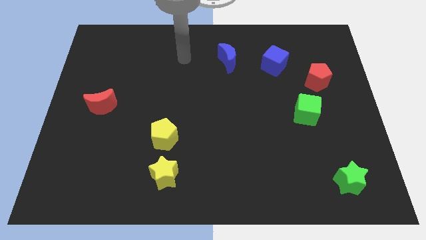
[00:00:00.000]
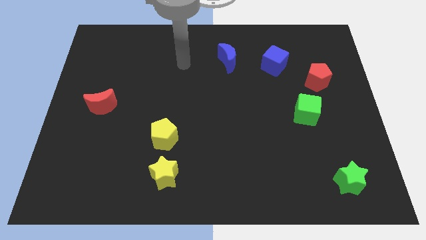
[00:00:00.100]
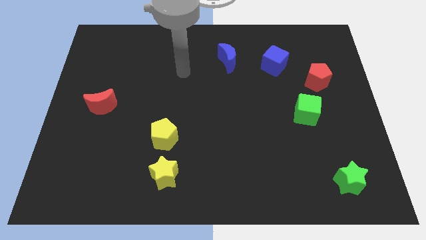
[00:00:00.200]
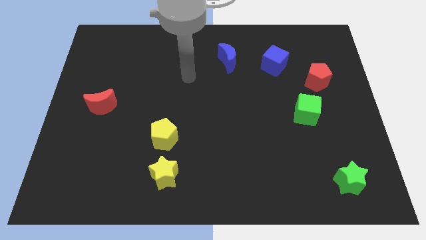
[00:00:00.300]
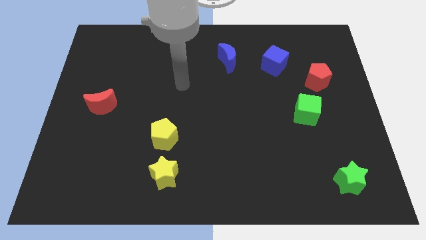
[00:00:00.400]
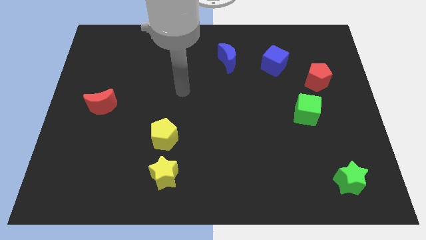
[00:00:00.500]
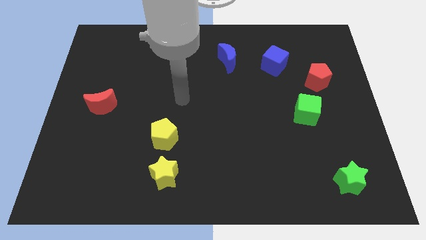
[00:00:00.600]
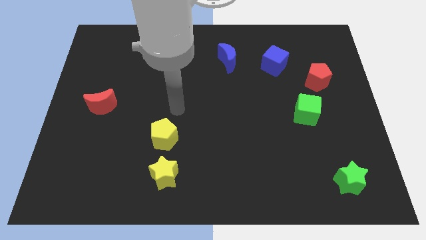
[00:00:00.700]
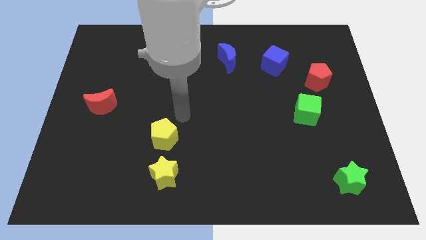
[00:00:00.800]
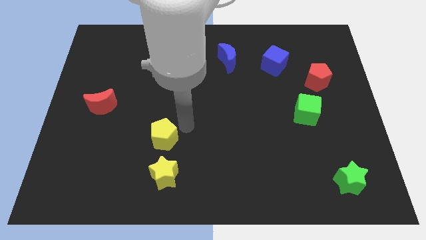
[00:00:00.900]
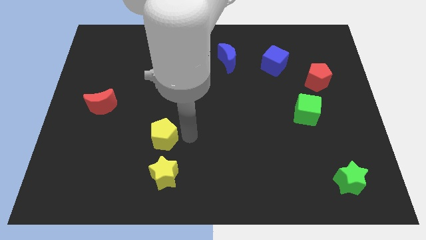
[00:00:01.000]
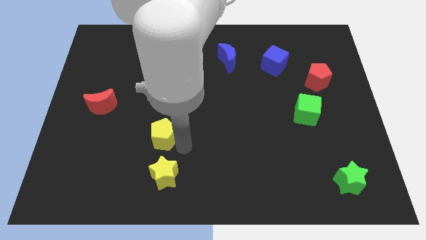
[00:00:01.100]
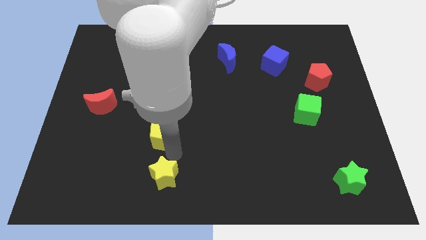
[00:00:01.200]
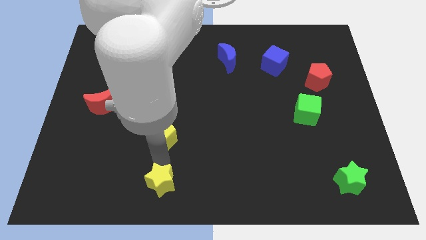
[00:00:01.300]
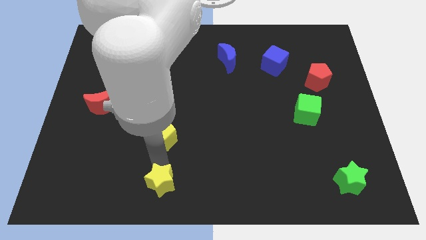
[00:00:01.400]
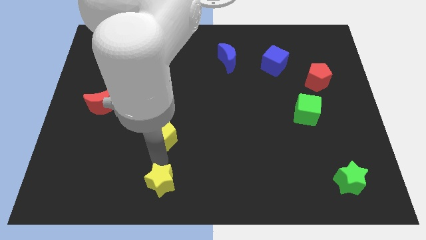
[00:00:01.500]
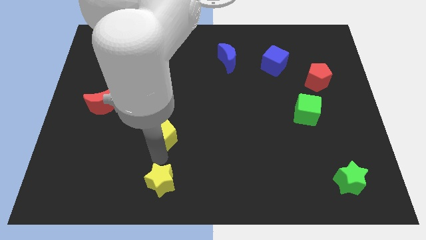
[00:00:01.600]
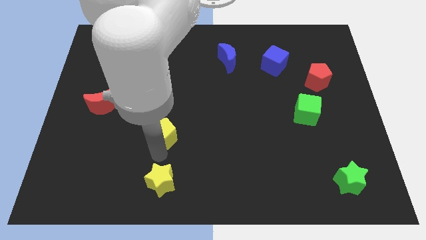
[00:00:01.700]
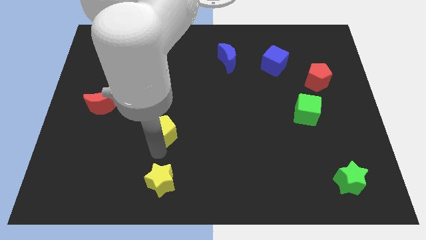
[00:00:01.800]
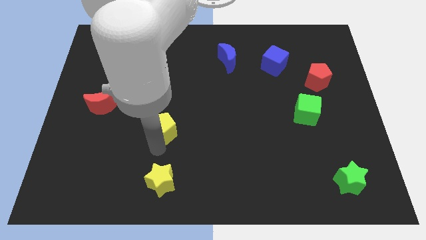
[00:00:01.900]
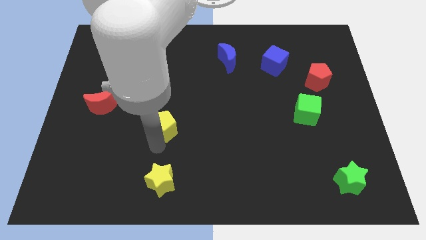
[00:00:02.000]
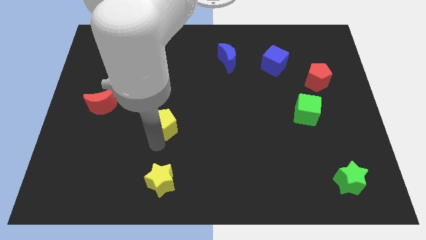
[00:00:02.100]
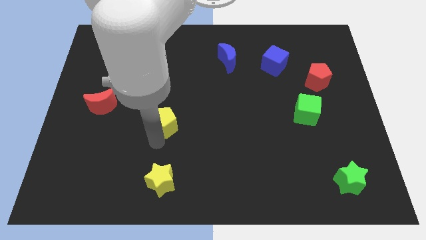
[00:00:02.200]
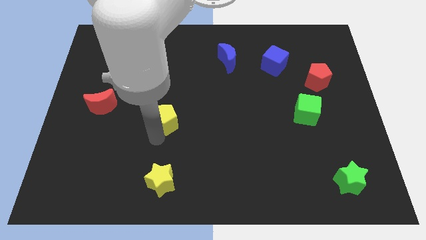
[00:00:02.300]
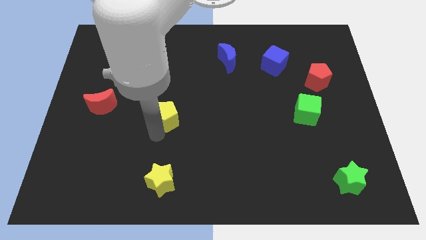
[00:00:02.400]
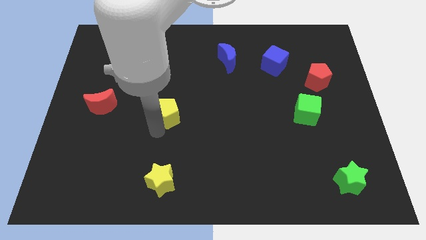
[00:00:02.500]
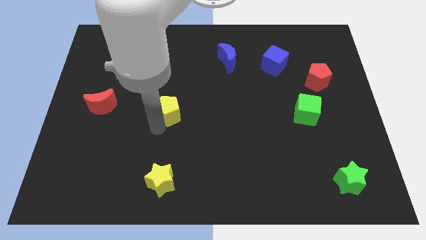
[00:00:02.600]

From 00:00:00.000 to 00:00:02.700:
slide the yellow pentagon a little bit up

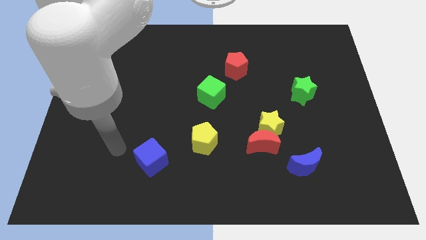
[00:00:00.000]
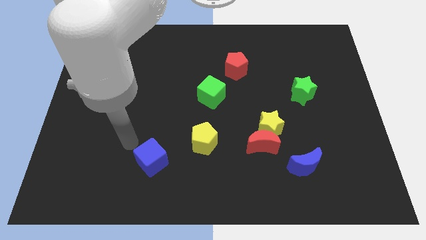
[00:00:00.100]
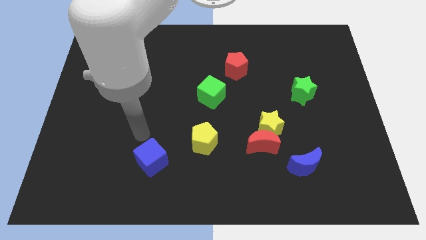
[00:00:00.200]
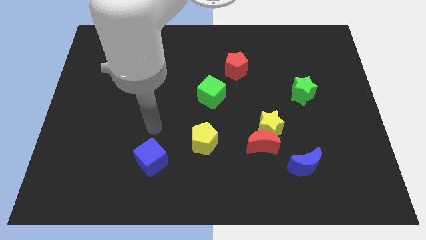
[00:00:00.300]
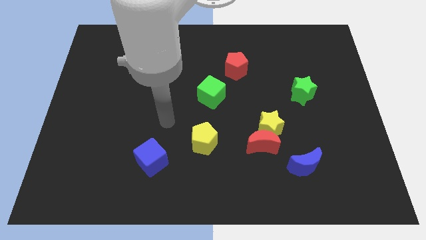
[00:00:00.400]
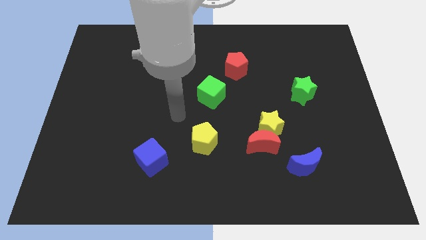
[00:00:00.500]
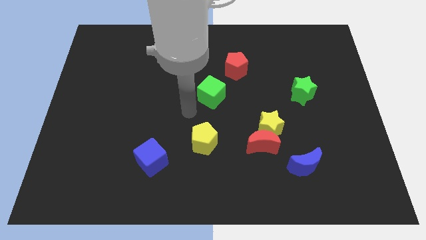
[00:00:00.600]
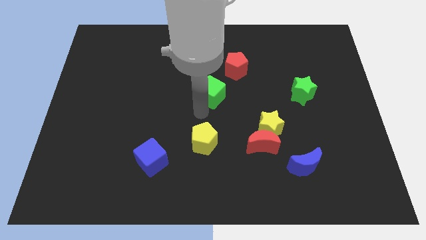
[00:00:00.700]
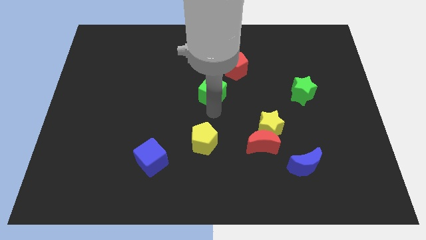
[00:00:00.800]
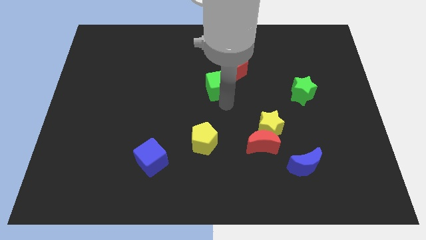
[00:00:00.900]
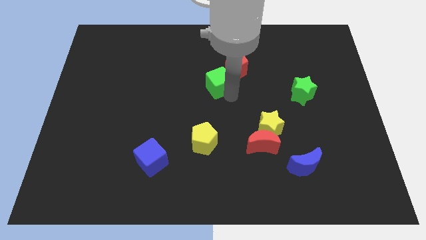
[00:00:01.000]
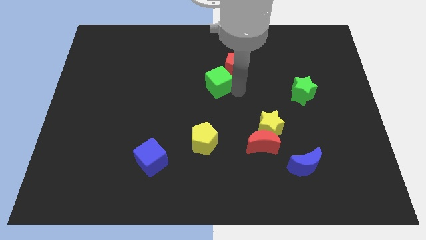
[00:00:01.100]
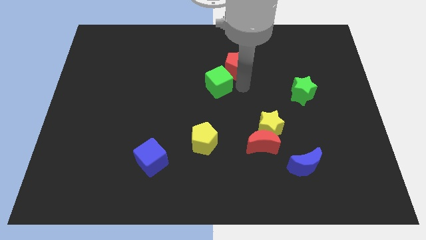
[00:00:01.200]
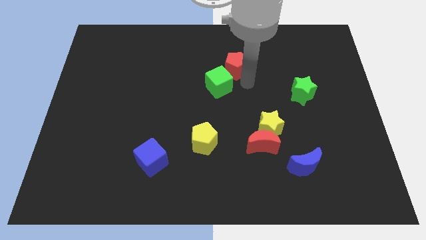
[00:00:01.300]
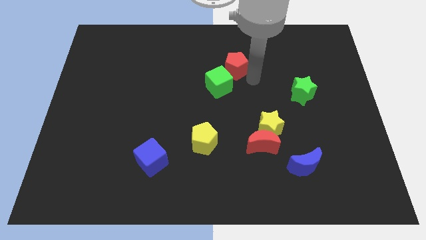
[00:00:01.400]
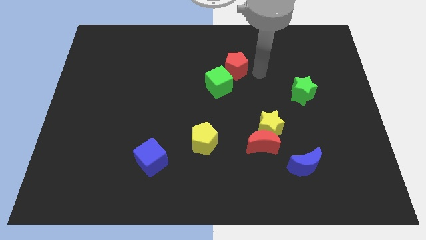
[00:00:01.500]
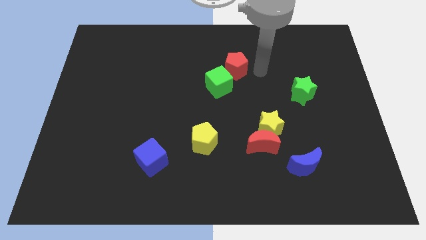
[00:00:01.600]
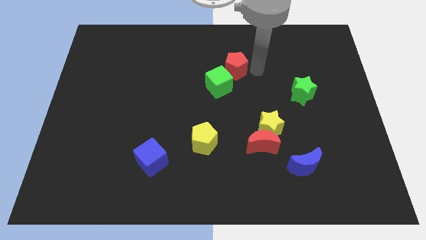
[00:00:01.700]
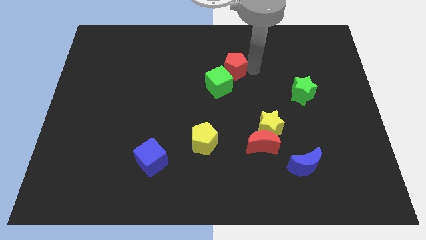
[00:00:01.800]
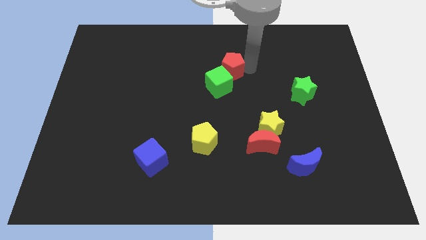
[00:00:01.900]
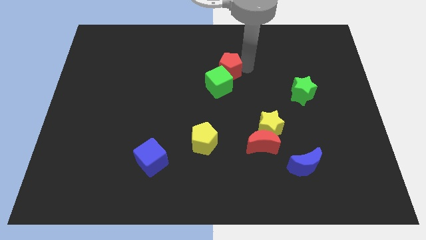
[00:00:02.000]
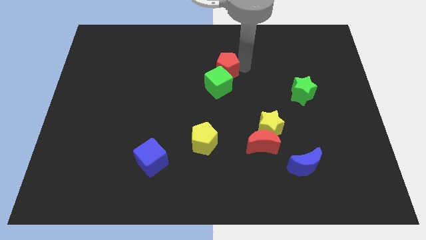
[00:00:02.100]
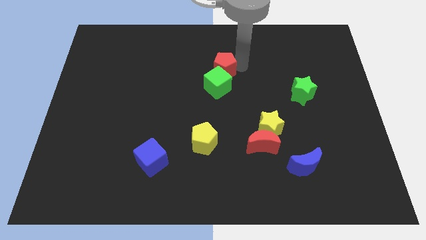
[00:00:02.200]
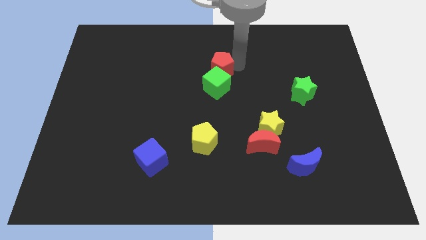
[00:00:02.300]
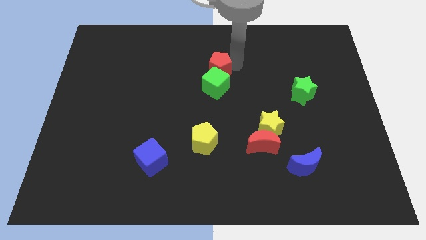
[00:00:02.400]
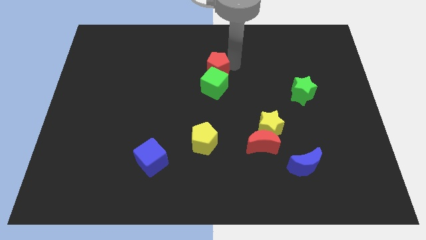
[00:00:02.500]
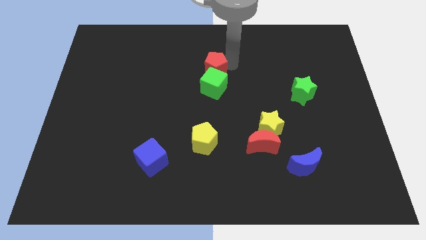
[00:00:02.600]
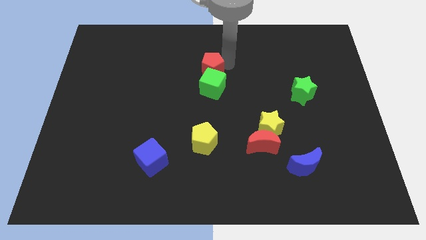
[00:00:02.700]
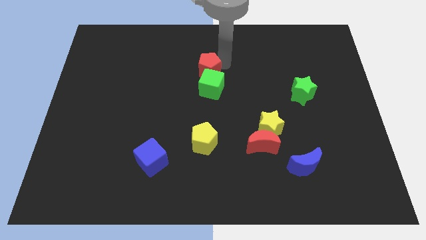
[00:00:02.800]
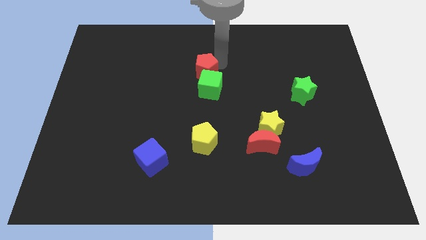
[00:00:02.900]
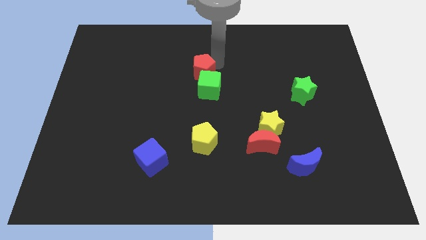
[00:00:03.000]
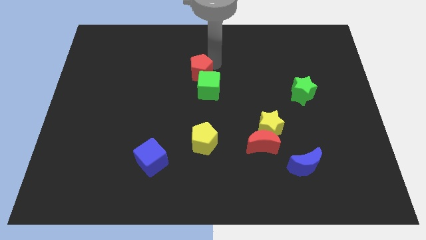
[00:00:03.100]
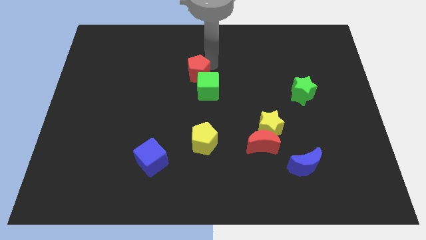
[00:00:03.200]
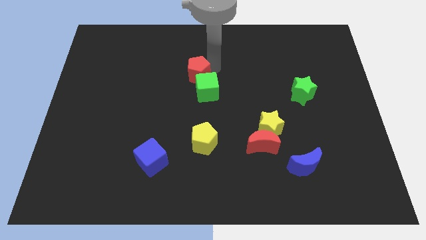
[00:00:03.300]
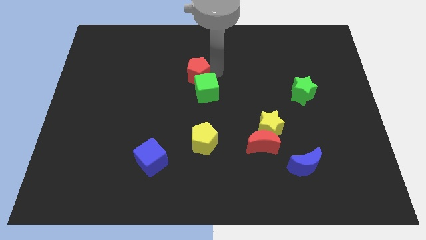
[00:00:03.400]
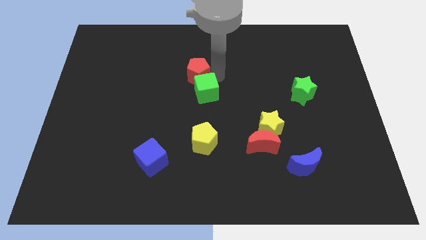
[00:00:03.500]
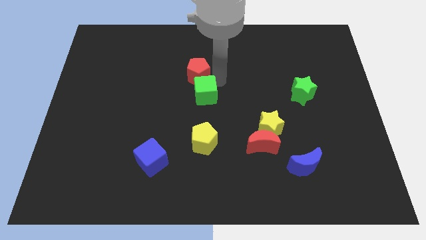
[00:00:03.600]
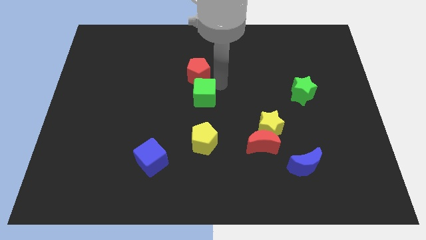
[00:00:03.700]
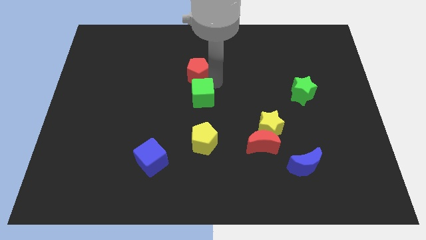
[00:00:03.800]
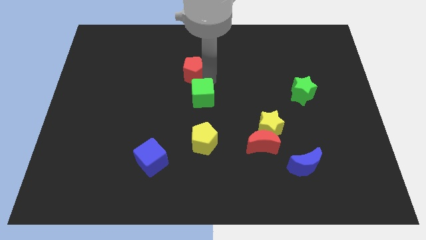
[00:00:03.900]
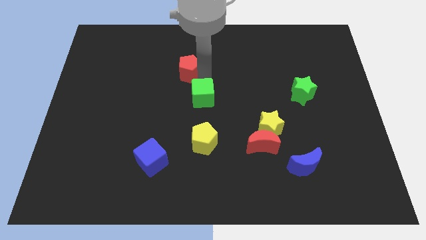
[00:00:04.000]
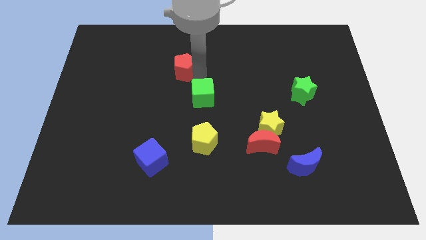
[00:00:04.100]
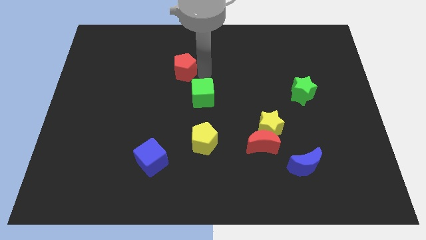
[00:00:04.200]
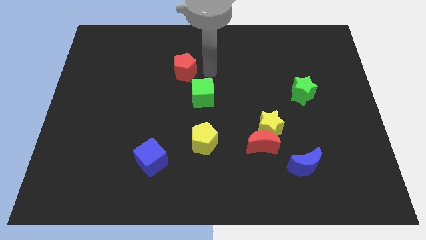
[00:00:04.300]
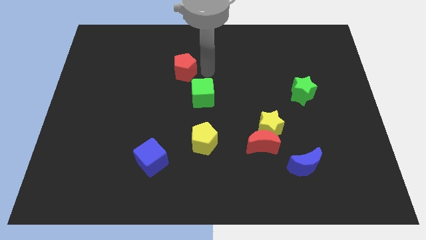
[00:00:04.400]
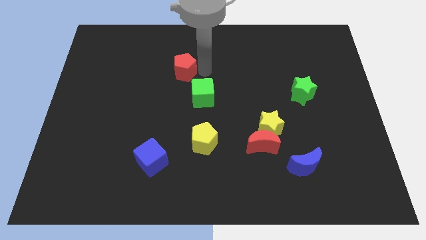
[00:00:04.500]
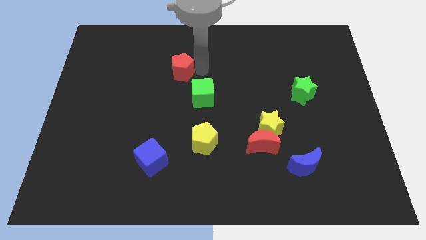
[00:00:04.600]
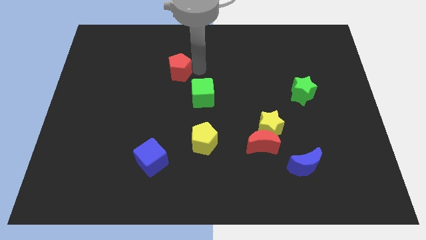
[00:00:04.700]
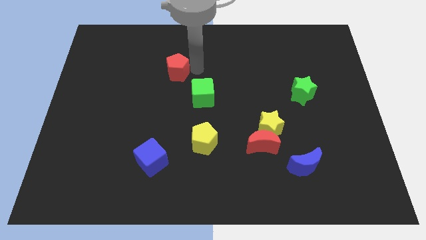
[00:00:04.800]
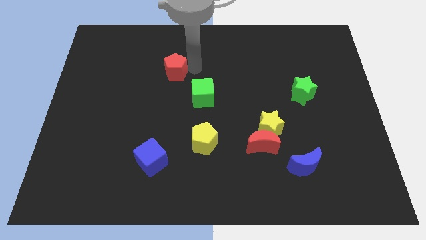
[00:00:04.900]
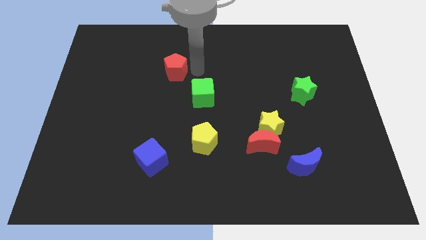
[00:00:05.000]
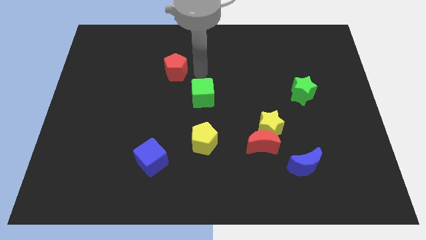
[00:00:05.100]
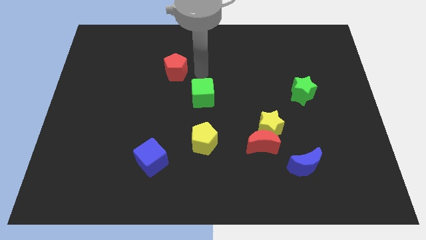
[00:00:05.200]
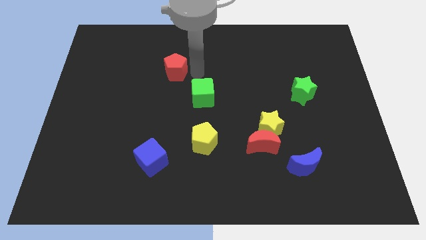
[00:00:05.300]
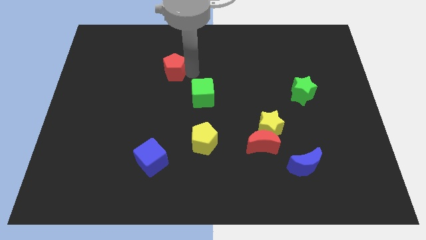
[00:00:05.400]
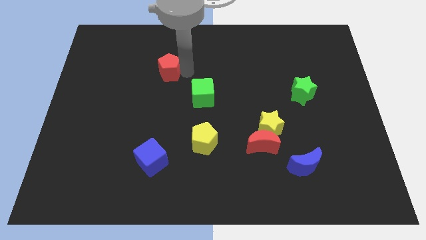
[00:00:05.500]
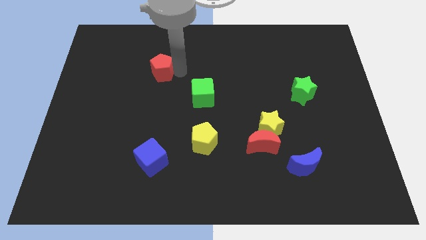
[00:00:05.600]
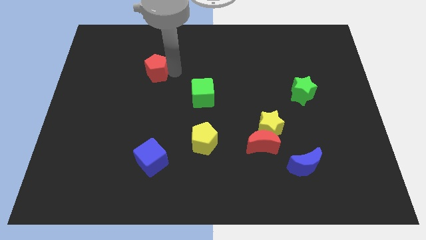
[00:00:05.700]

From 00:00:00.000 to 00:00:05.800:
push the red pentagon left
